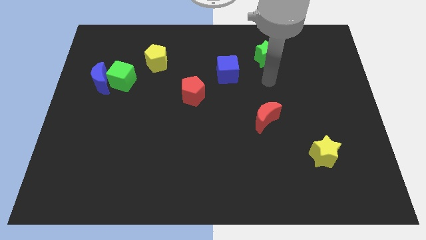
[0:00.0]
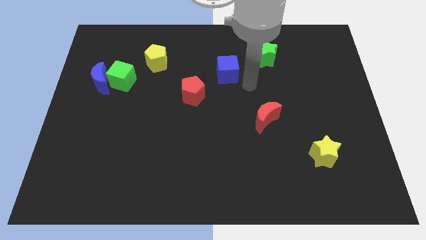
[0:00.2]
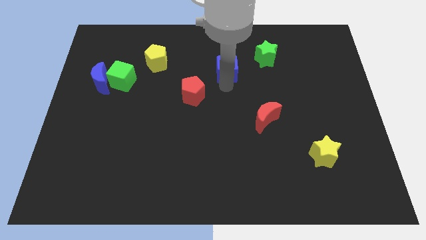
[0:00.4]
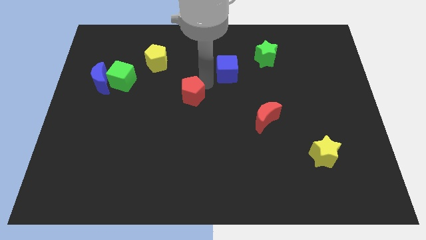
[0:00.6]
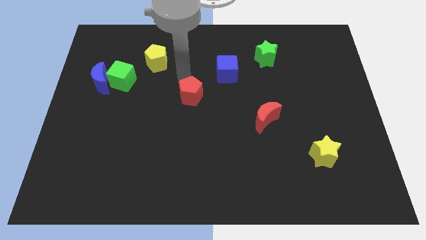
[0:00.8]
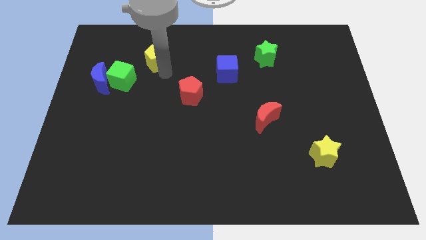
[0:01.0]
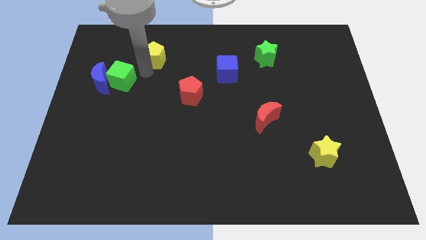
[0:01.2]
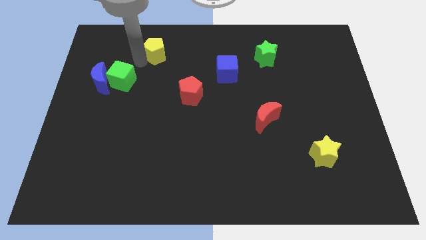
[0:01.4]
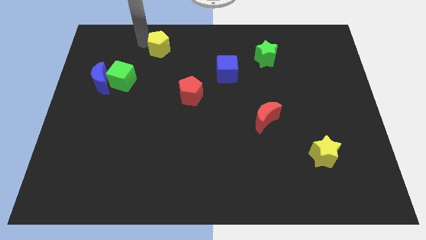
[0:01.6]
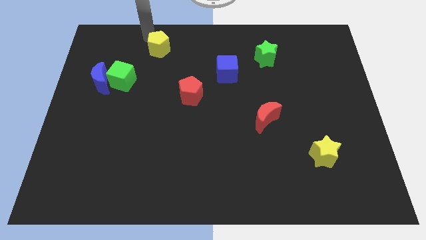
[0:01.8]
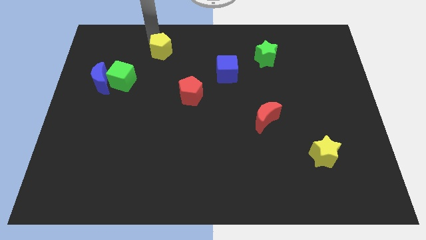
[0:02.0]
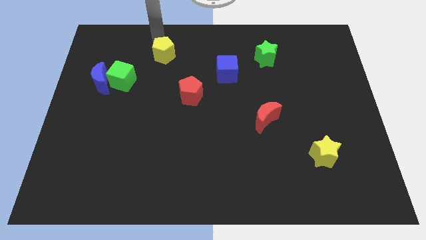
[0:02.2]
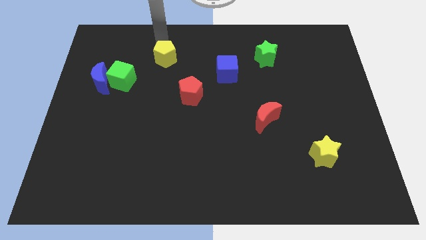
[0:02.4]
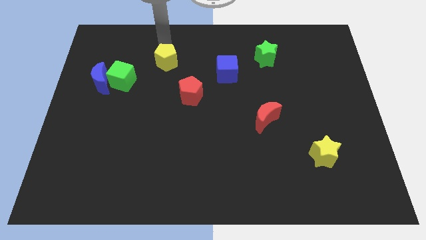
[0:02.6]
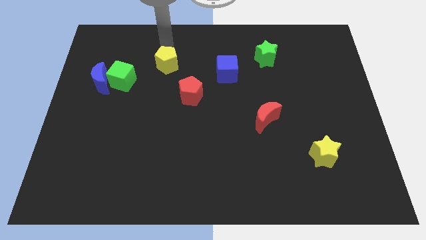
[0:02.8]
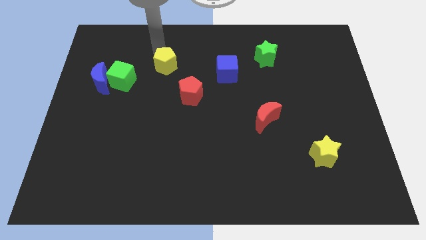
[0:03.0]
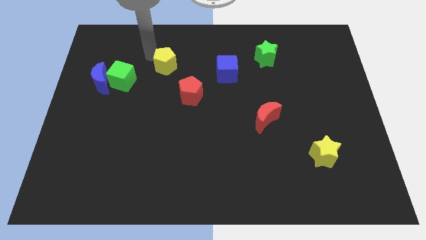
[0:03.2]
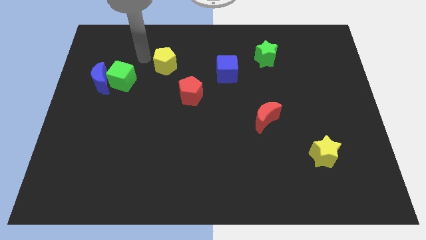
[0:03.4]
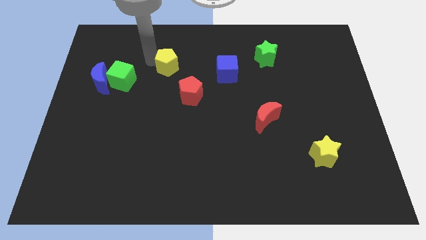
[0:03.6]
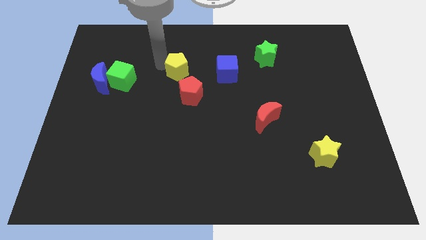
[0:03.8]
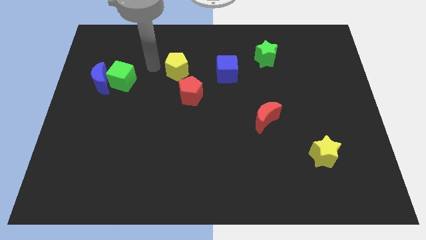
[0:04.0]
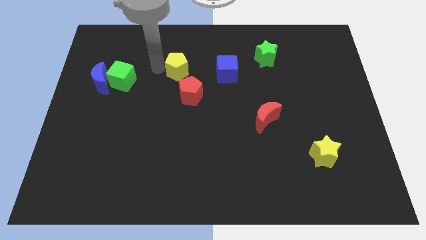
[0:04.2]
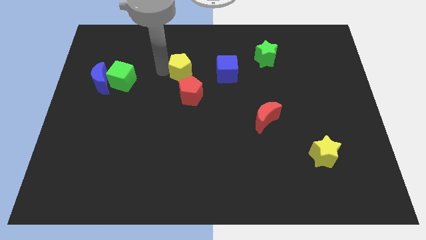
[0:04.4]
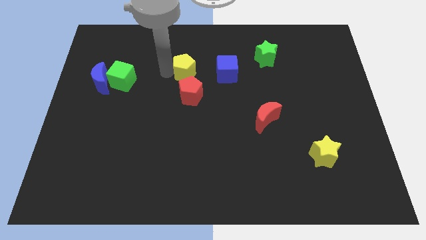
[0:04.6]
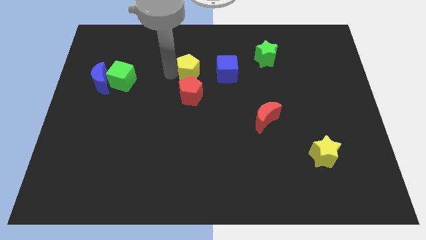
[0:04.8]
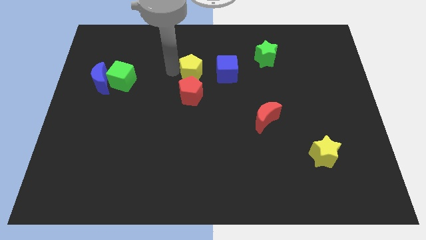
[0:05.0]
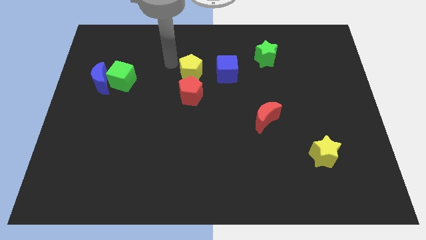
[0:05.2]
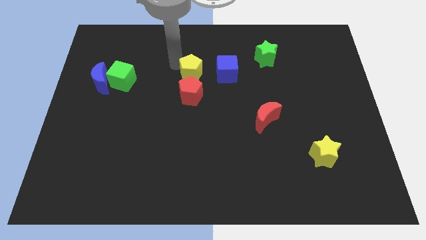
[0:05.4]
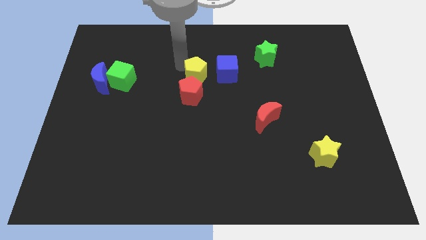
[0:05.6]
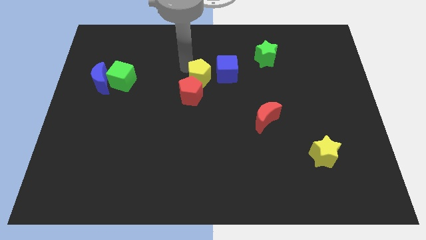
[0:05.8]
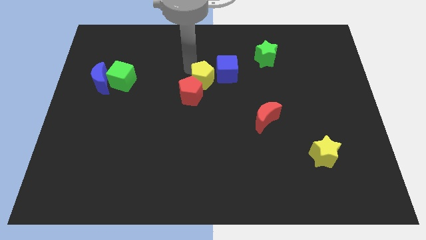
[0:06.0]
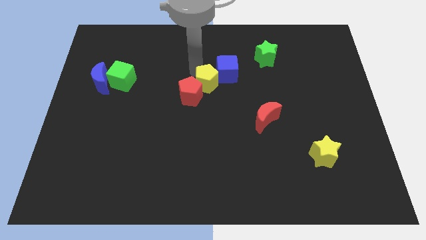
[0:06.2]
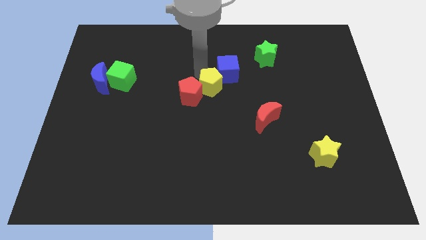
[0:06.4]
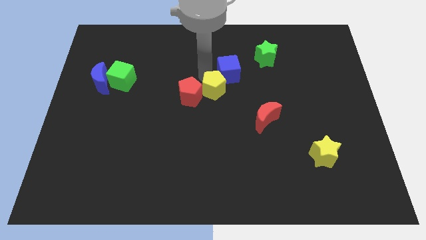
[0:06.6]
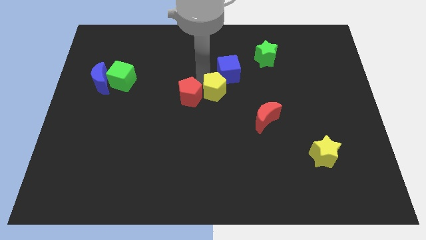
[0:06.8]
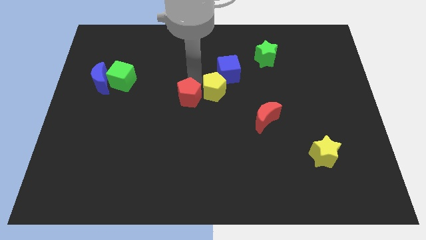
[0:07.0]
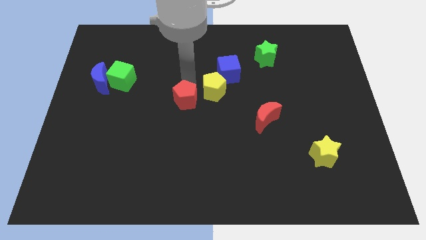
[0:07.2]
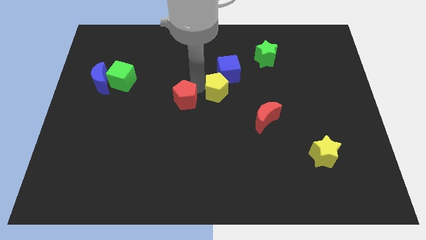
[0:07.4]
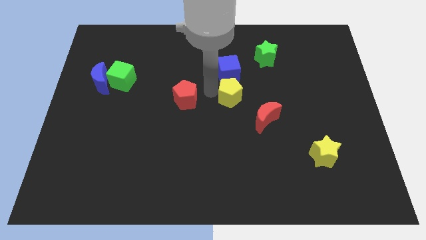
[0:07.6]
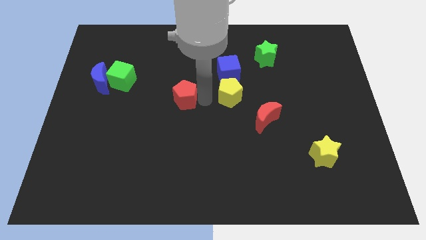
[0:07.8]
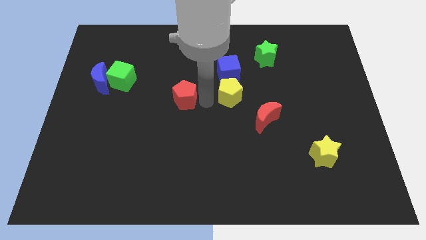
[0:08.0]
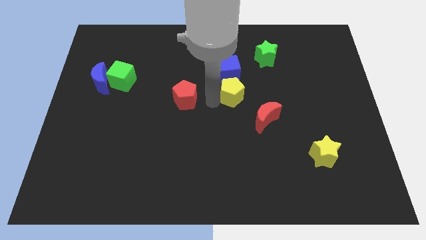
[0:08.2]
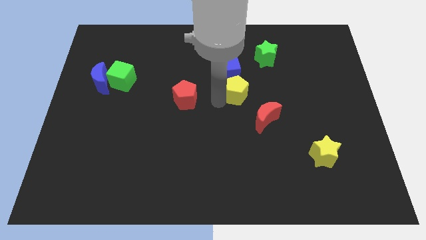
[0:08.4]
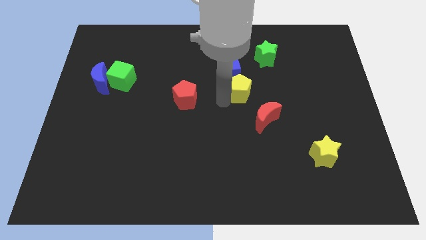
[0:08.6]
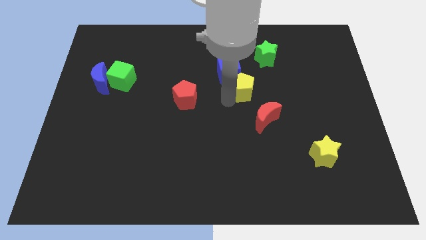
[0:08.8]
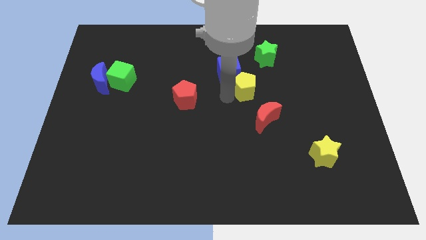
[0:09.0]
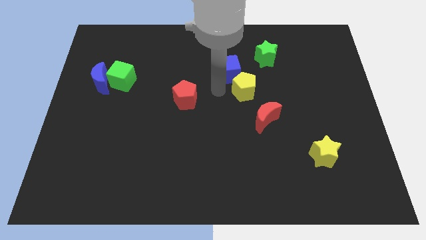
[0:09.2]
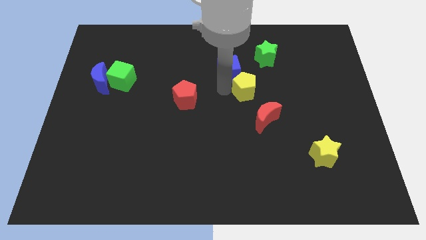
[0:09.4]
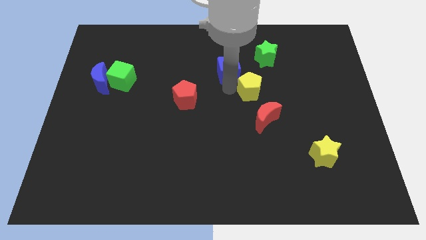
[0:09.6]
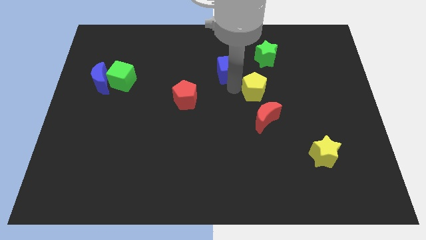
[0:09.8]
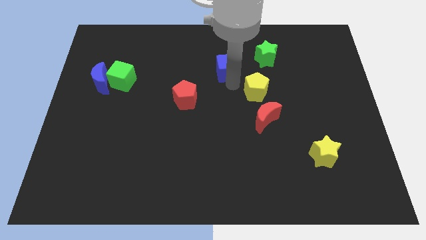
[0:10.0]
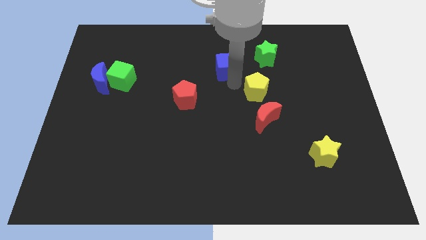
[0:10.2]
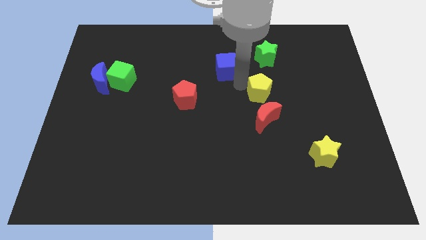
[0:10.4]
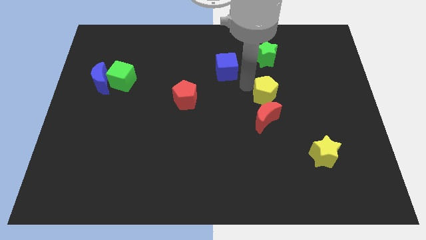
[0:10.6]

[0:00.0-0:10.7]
put the yellow pentagon to the top right side of the red moon

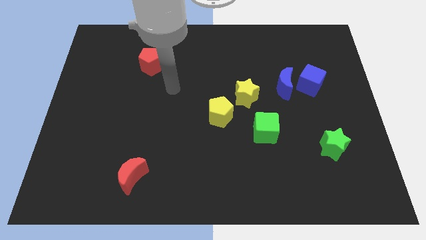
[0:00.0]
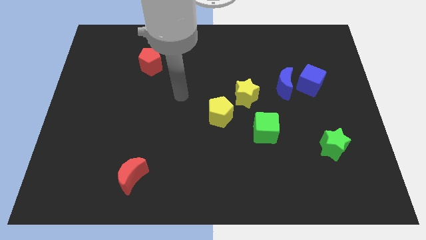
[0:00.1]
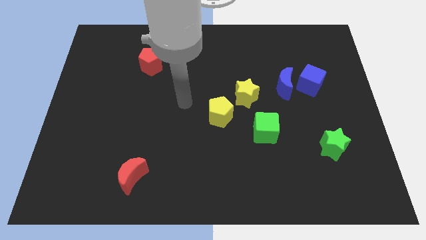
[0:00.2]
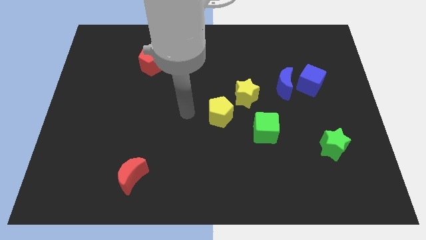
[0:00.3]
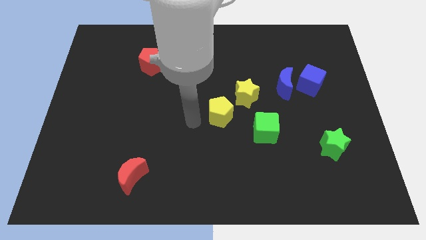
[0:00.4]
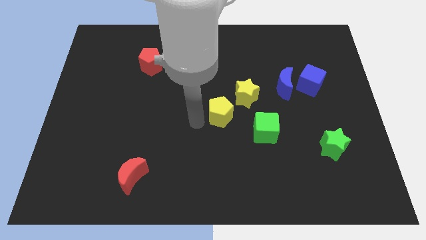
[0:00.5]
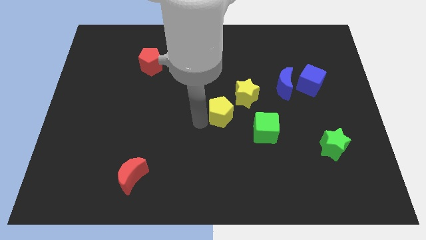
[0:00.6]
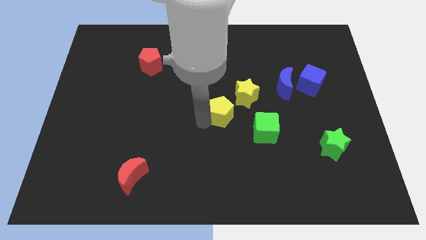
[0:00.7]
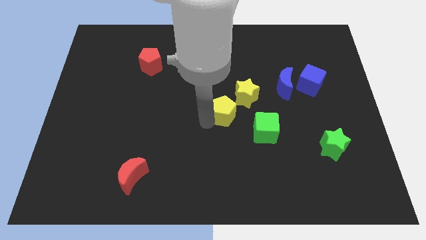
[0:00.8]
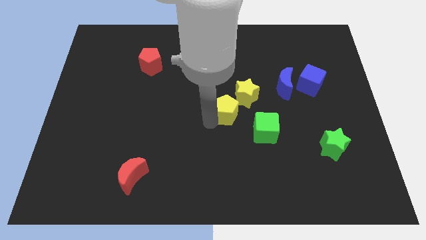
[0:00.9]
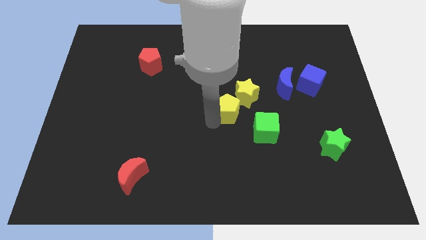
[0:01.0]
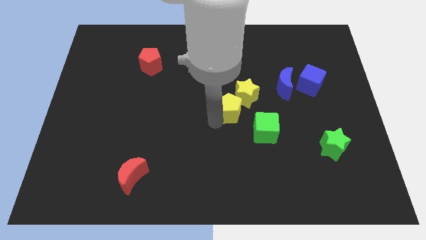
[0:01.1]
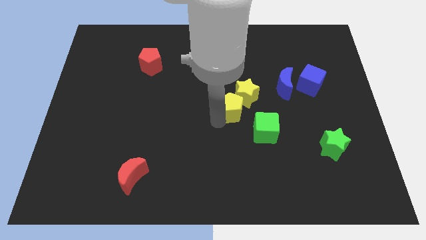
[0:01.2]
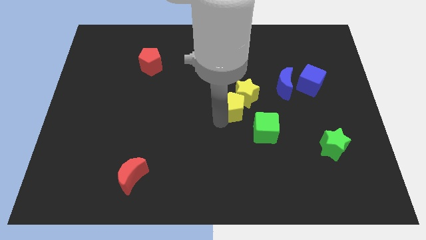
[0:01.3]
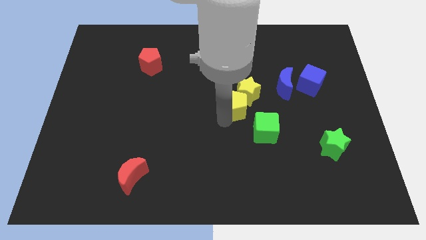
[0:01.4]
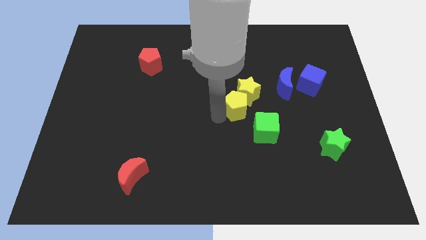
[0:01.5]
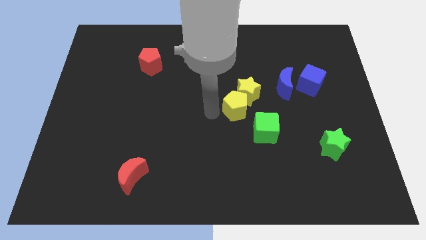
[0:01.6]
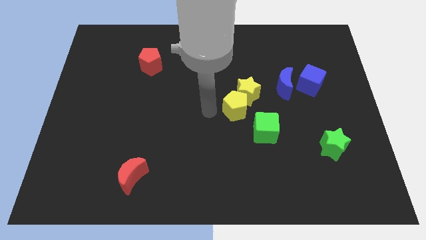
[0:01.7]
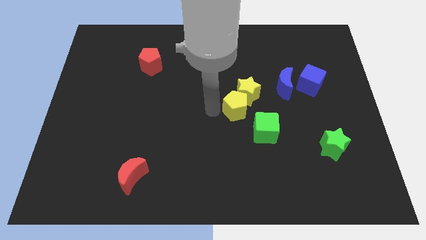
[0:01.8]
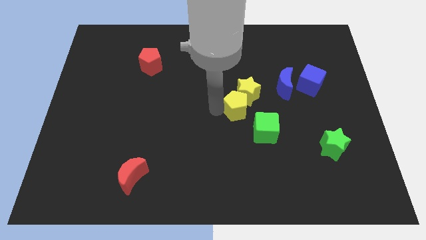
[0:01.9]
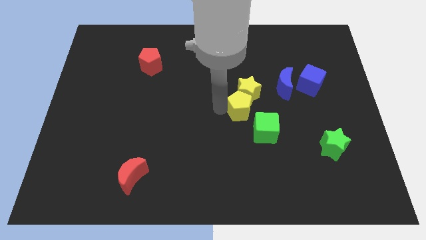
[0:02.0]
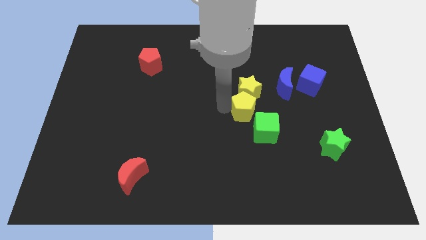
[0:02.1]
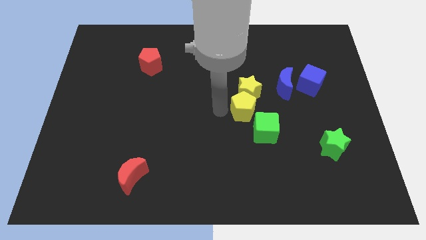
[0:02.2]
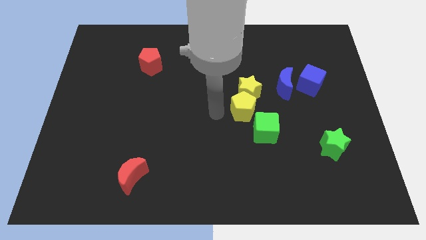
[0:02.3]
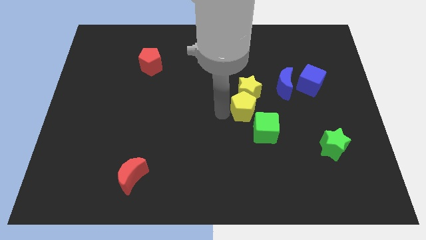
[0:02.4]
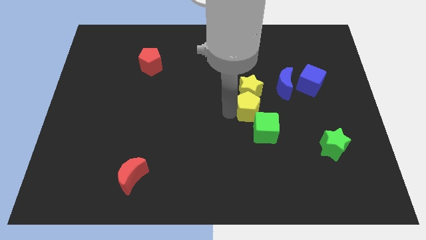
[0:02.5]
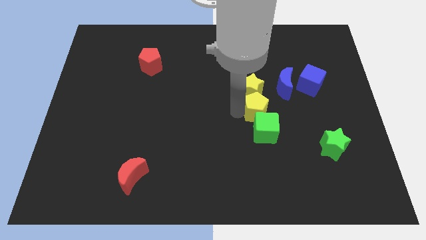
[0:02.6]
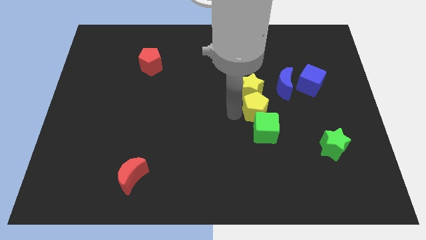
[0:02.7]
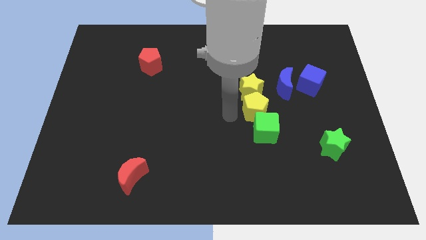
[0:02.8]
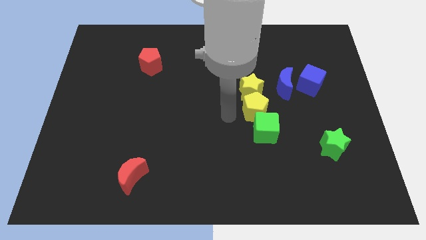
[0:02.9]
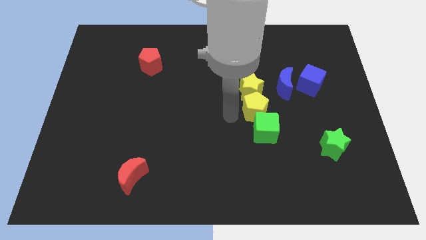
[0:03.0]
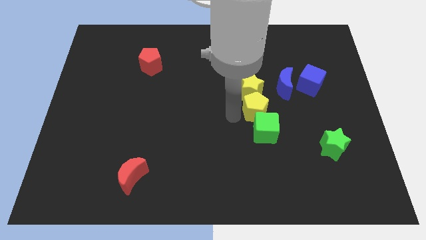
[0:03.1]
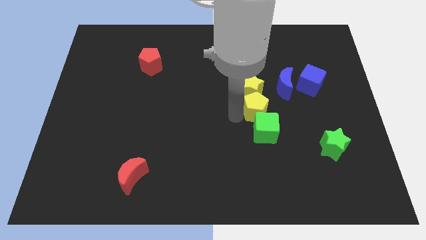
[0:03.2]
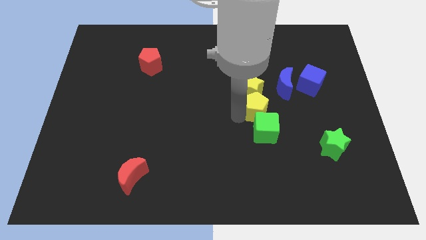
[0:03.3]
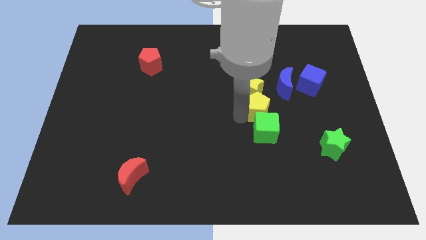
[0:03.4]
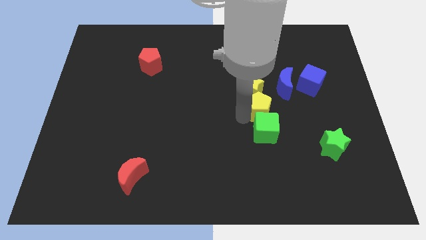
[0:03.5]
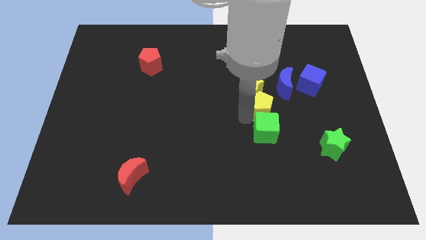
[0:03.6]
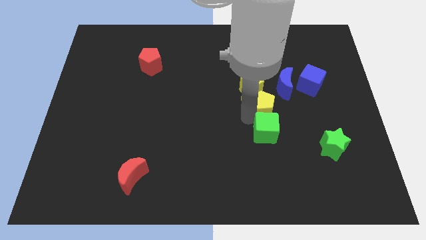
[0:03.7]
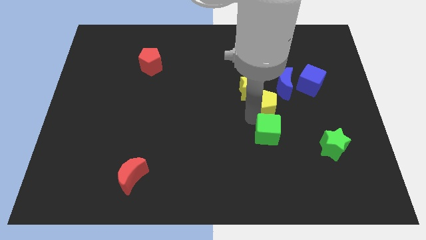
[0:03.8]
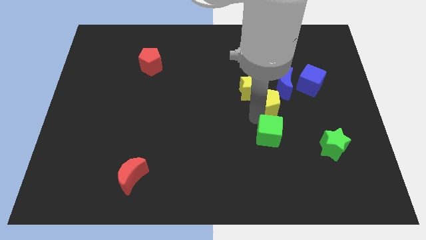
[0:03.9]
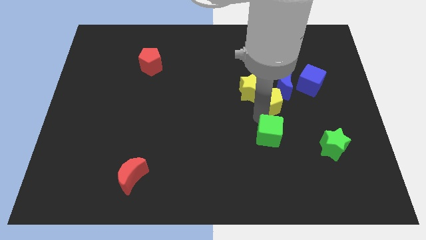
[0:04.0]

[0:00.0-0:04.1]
move the yellow pentagon just right of the yellow star
